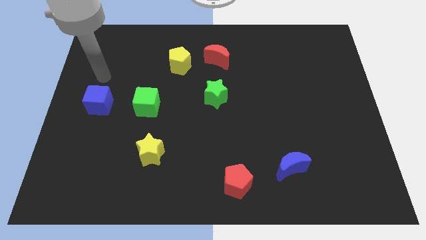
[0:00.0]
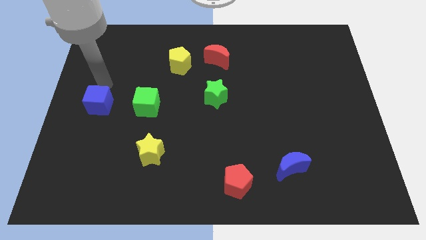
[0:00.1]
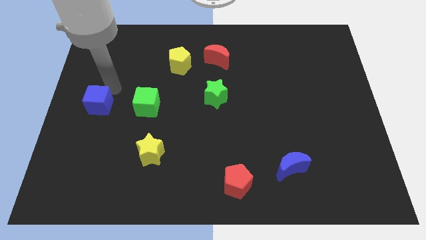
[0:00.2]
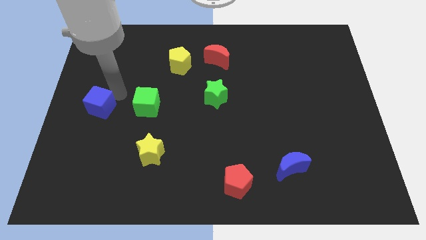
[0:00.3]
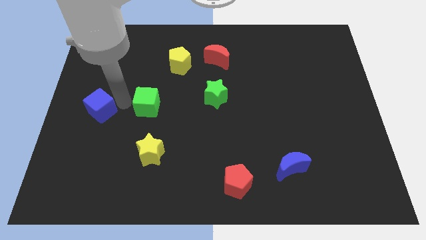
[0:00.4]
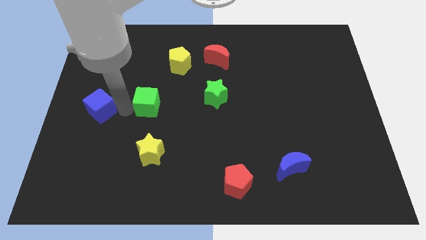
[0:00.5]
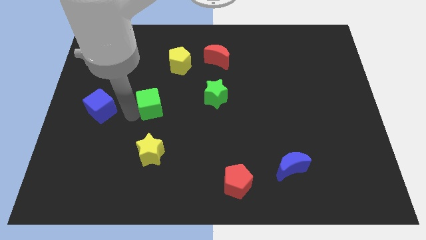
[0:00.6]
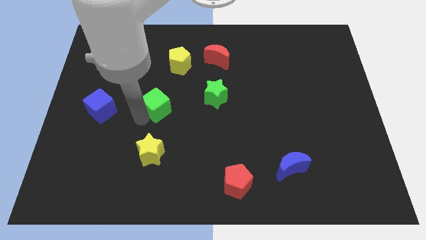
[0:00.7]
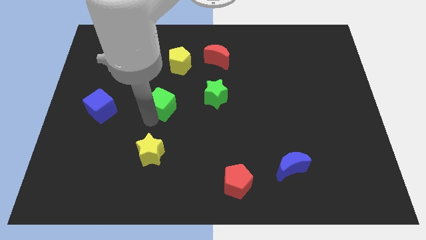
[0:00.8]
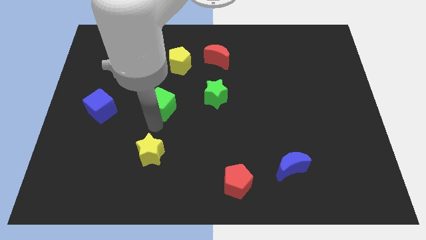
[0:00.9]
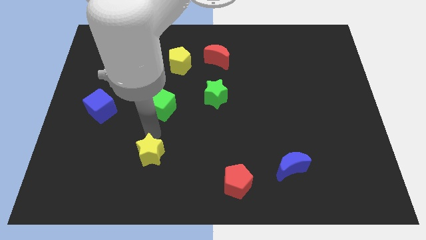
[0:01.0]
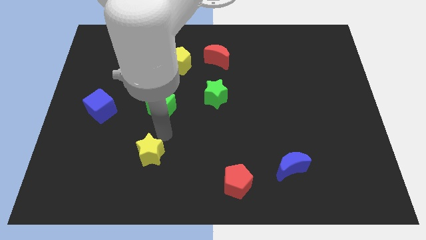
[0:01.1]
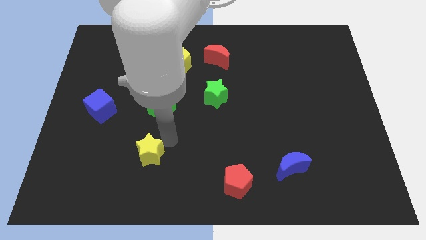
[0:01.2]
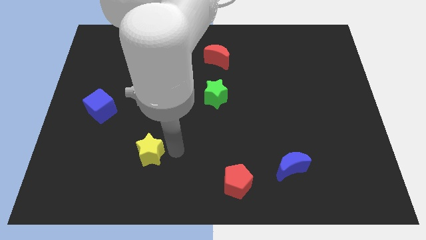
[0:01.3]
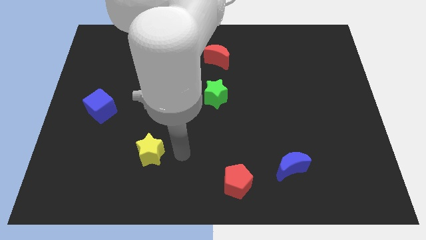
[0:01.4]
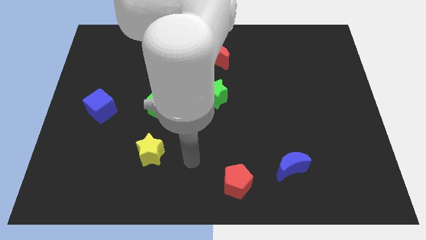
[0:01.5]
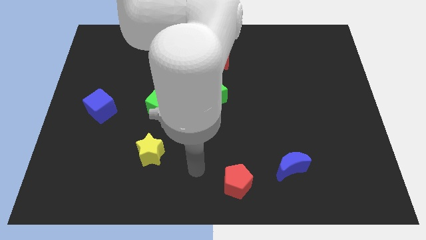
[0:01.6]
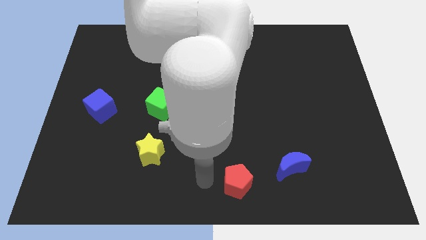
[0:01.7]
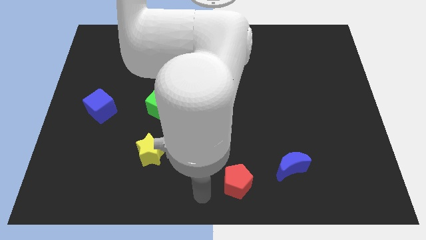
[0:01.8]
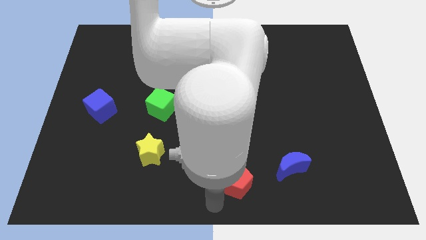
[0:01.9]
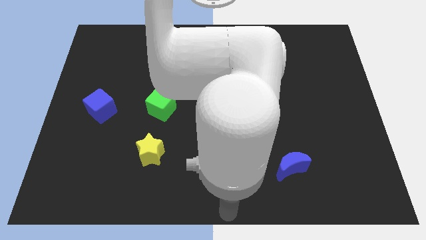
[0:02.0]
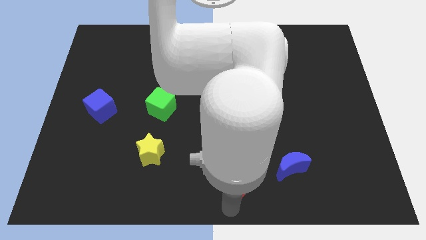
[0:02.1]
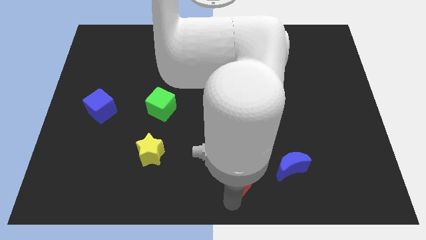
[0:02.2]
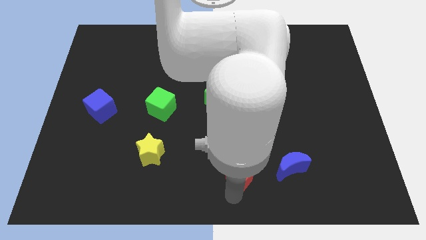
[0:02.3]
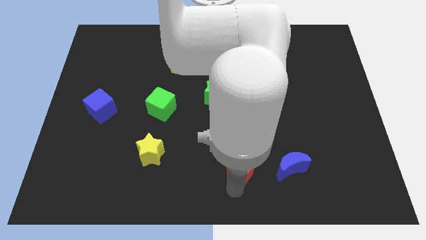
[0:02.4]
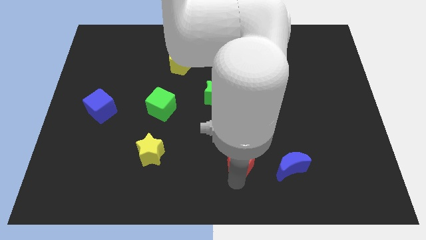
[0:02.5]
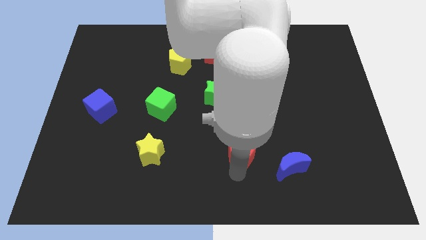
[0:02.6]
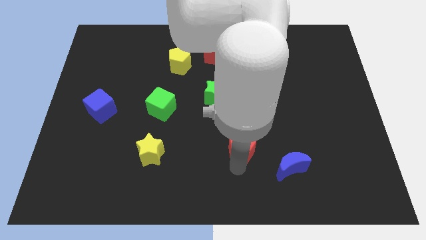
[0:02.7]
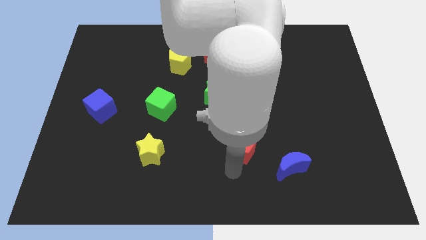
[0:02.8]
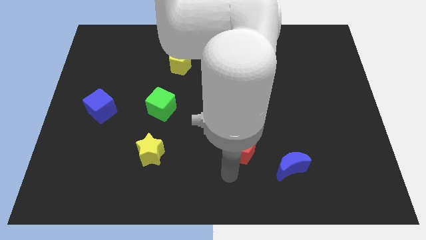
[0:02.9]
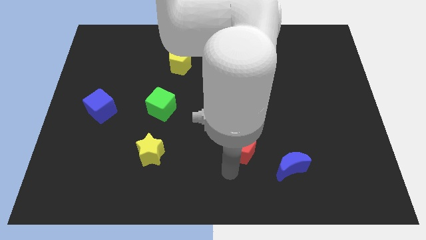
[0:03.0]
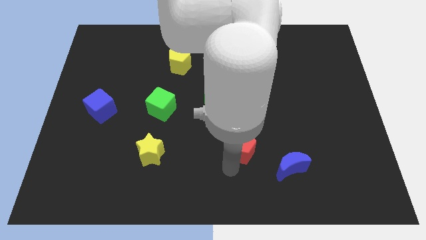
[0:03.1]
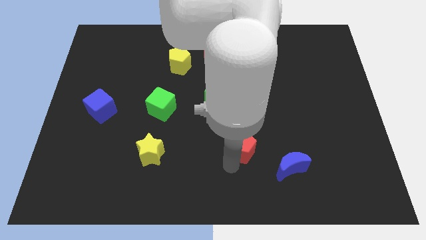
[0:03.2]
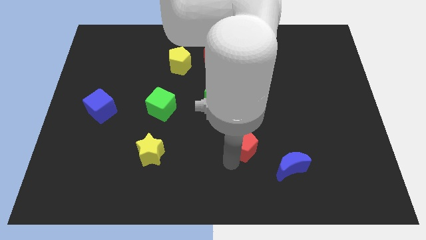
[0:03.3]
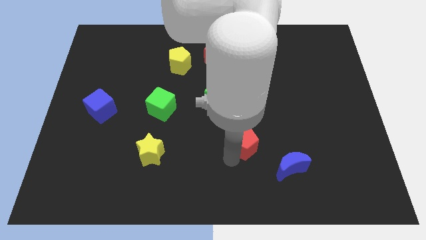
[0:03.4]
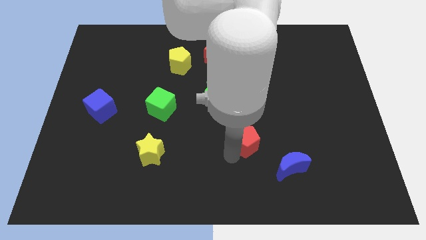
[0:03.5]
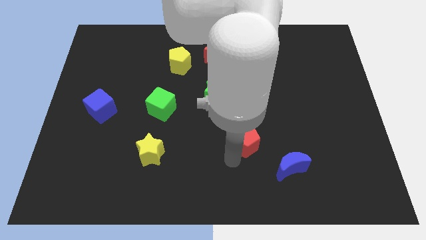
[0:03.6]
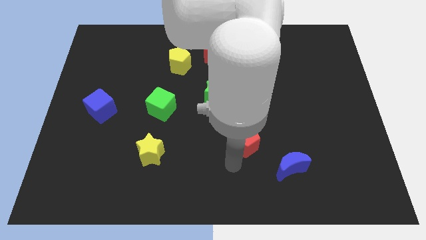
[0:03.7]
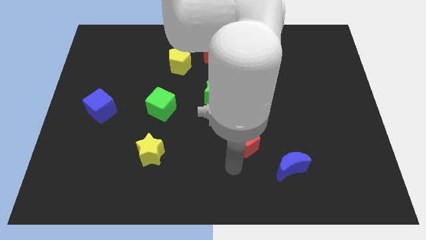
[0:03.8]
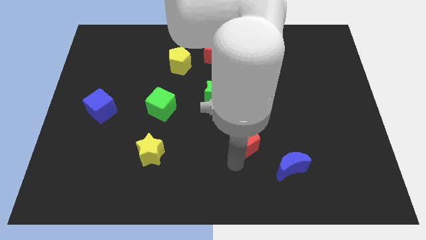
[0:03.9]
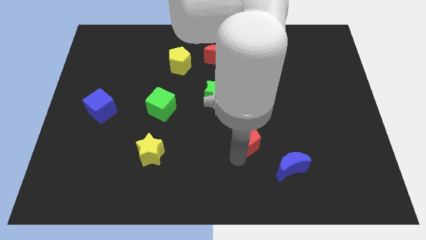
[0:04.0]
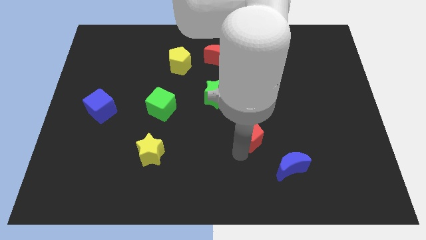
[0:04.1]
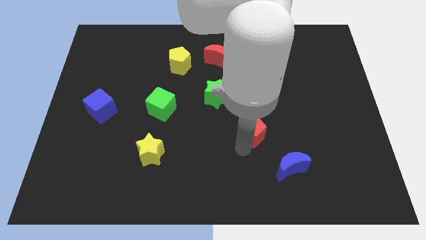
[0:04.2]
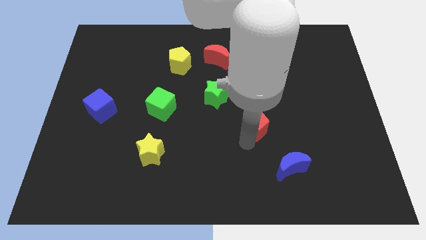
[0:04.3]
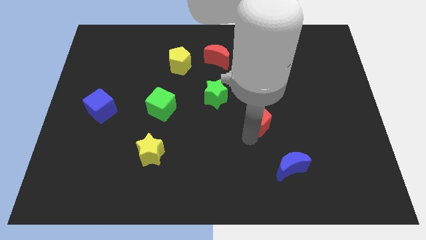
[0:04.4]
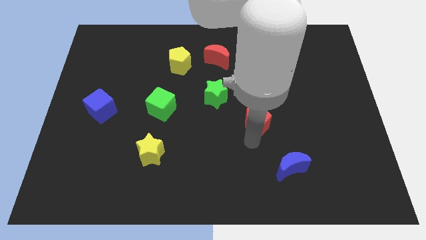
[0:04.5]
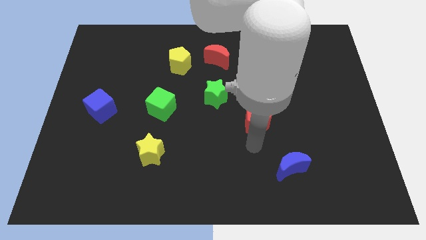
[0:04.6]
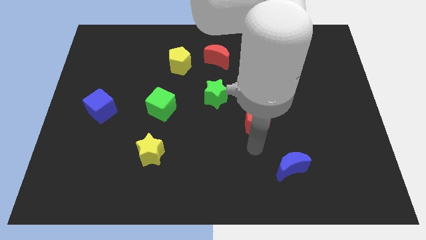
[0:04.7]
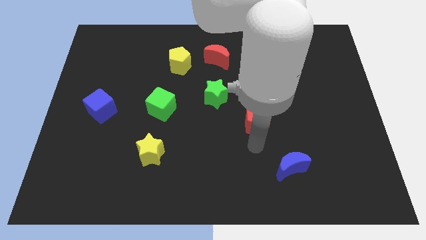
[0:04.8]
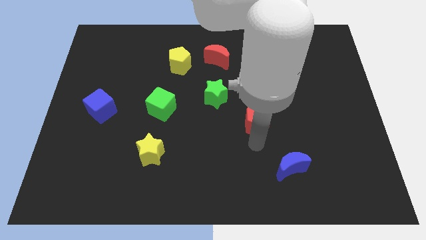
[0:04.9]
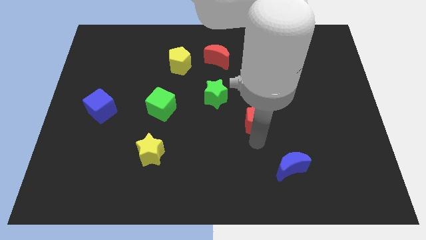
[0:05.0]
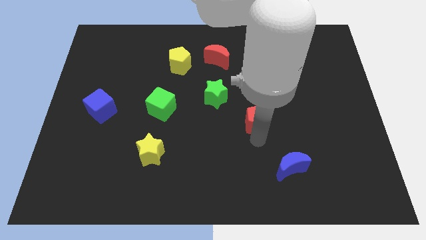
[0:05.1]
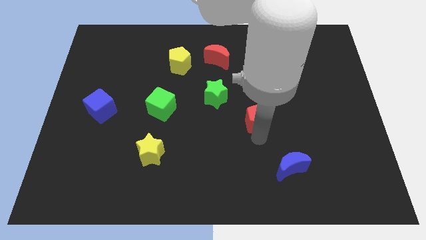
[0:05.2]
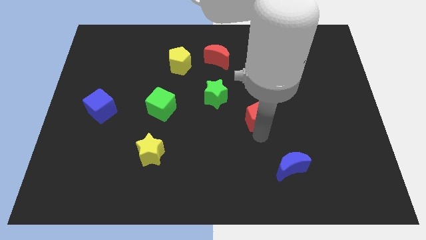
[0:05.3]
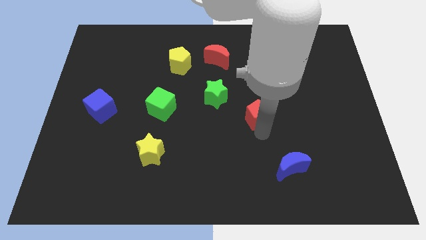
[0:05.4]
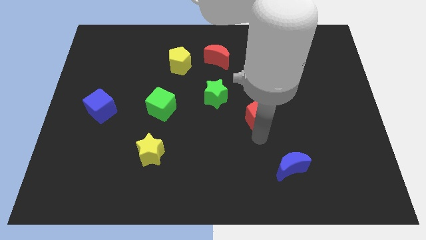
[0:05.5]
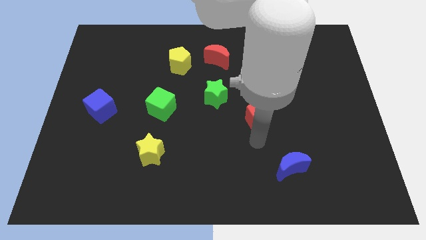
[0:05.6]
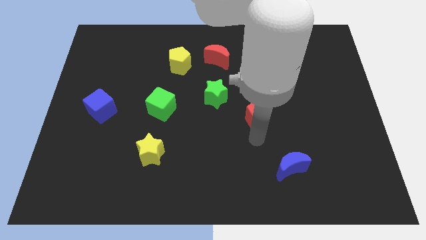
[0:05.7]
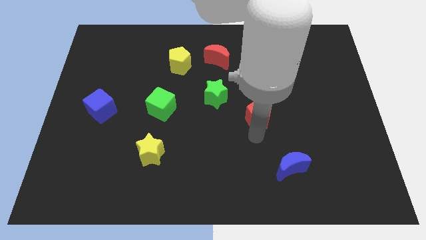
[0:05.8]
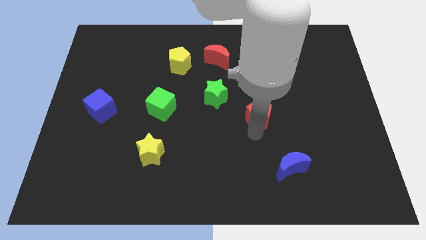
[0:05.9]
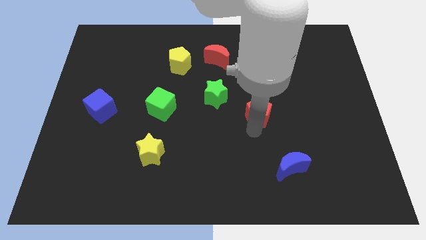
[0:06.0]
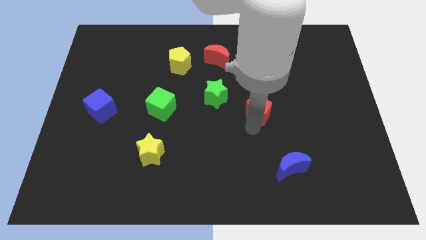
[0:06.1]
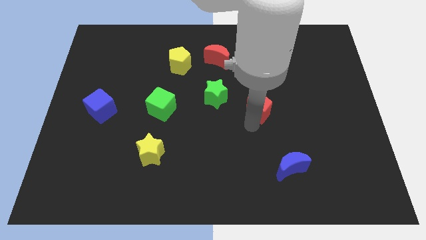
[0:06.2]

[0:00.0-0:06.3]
push the red pentagon right of the green star

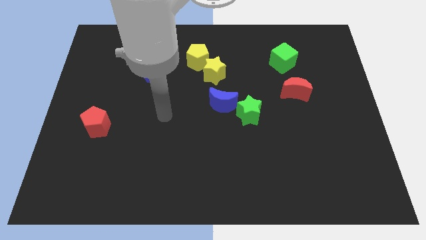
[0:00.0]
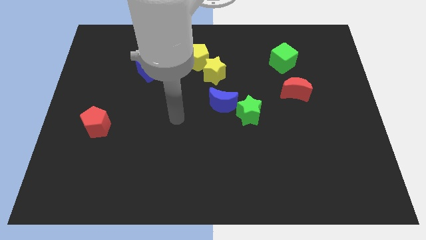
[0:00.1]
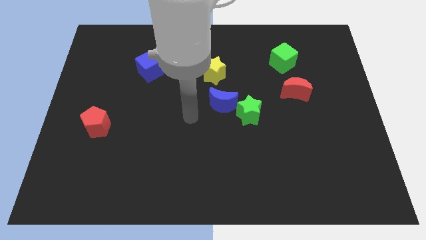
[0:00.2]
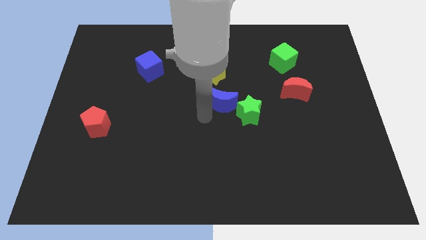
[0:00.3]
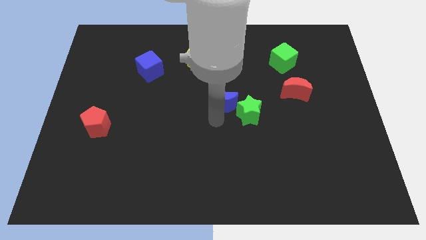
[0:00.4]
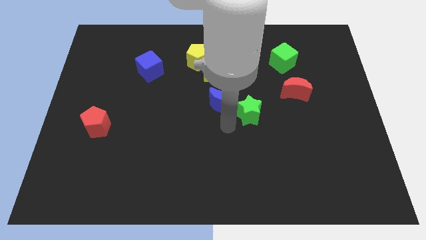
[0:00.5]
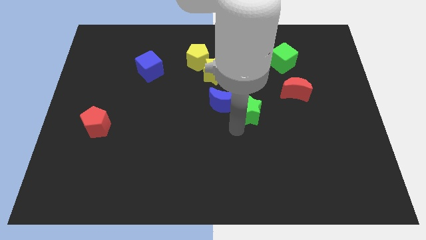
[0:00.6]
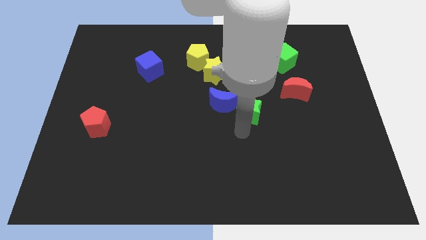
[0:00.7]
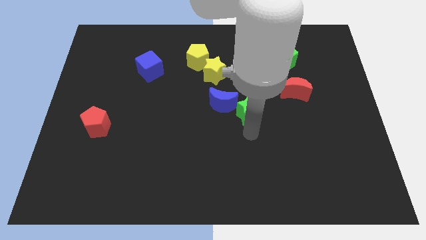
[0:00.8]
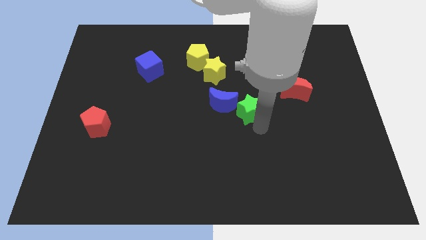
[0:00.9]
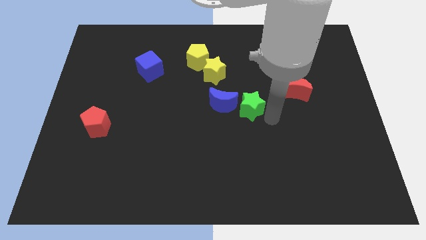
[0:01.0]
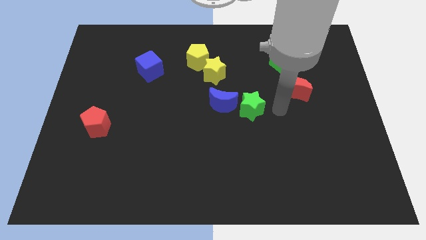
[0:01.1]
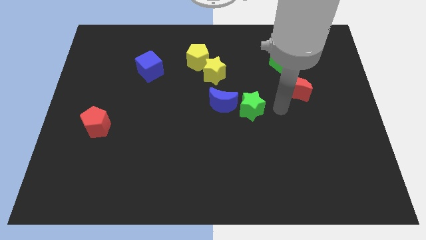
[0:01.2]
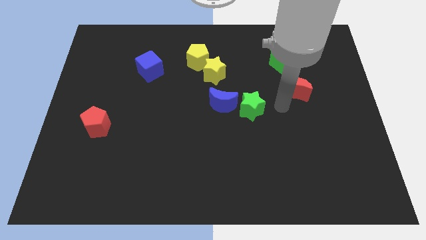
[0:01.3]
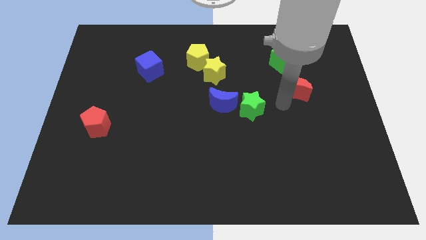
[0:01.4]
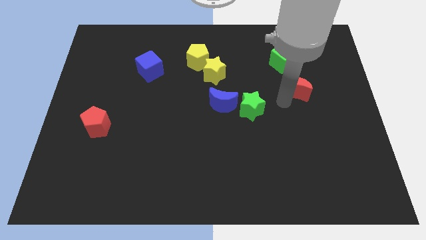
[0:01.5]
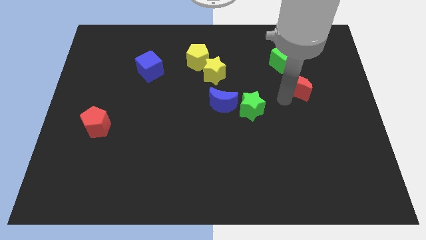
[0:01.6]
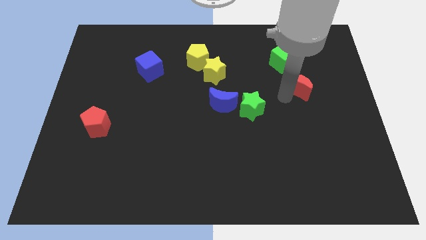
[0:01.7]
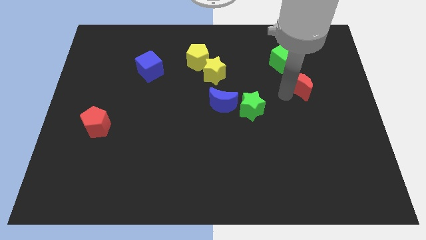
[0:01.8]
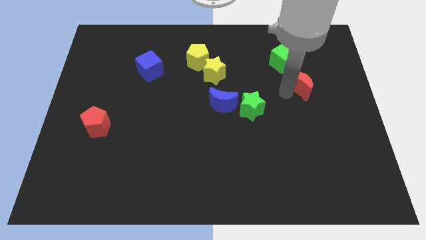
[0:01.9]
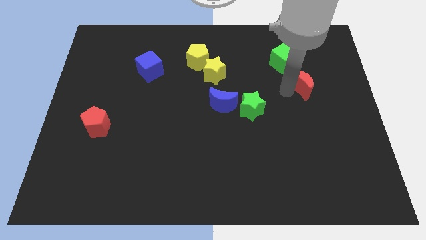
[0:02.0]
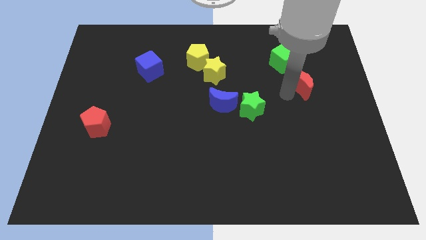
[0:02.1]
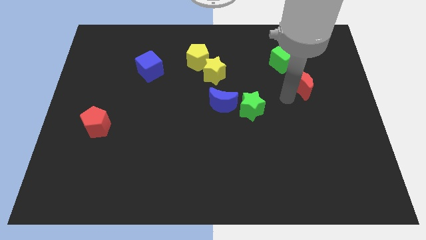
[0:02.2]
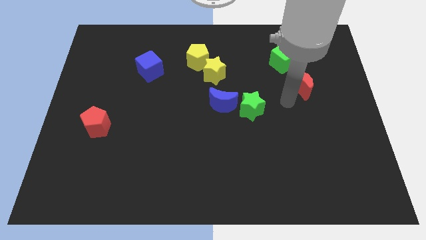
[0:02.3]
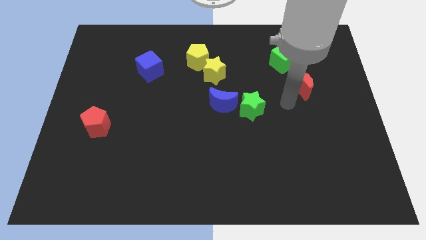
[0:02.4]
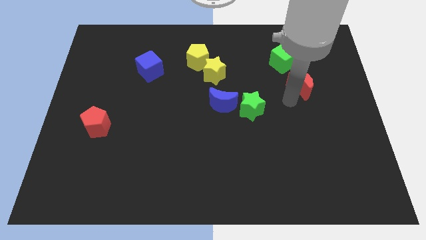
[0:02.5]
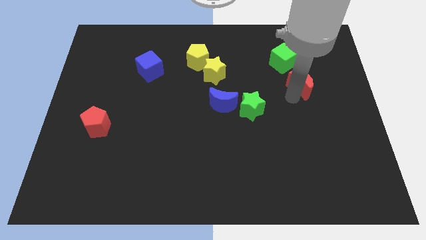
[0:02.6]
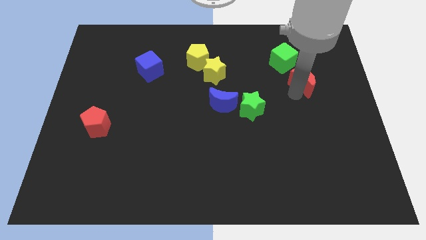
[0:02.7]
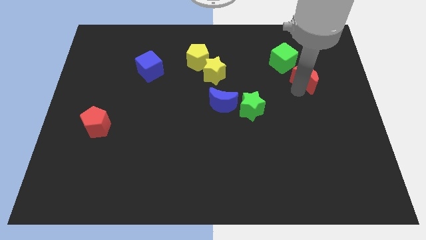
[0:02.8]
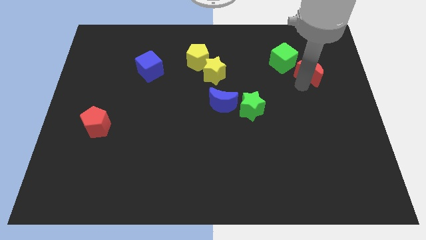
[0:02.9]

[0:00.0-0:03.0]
put the red moon to the right of the green cube
